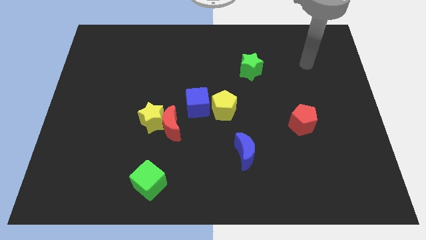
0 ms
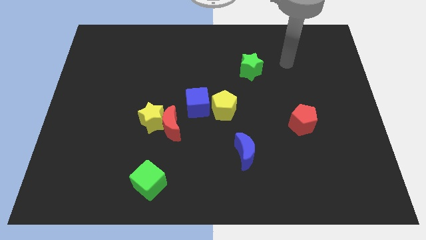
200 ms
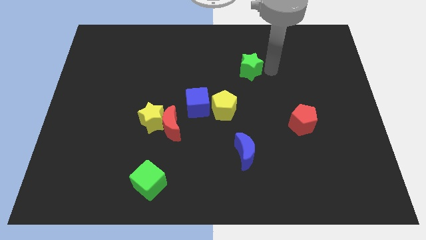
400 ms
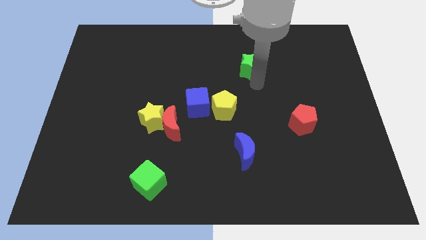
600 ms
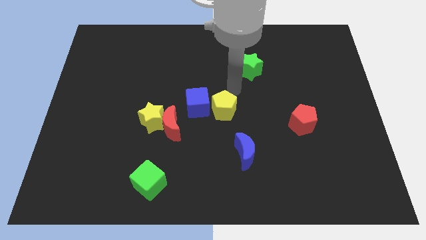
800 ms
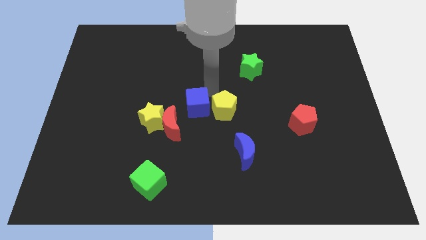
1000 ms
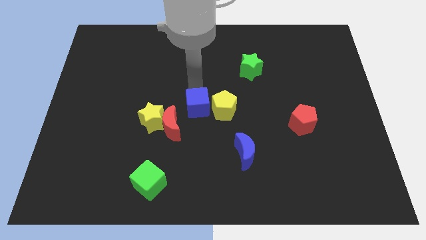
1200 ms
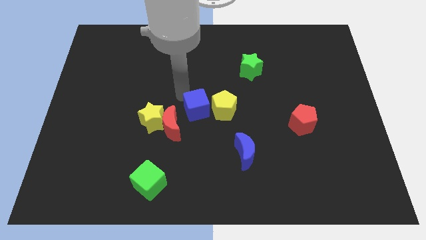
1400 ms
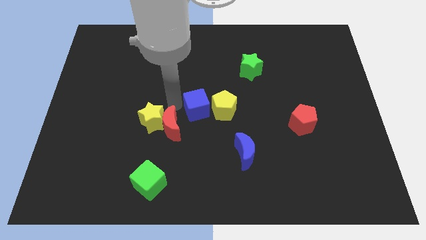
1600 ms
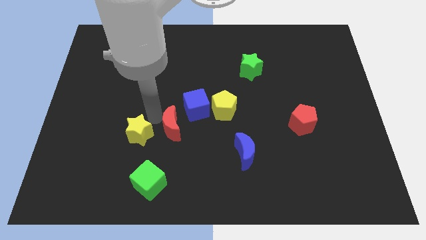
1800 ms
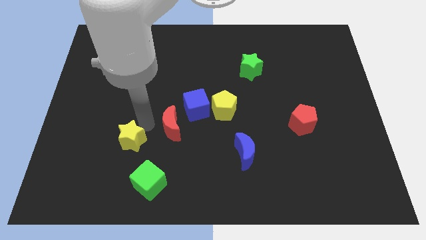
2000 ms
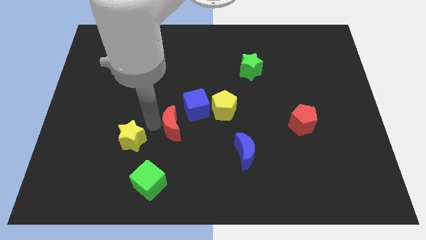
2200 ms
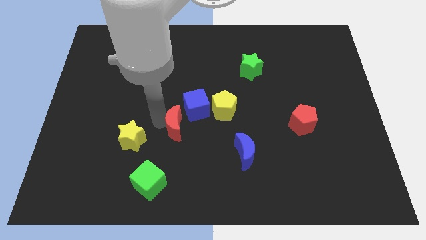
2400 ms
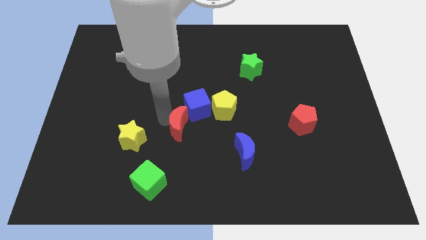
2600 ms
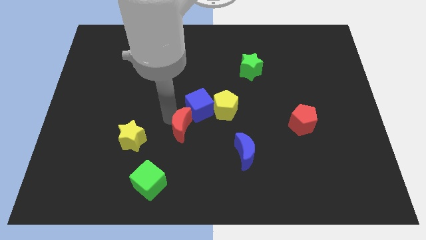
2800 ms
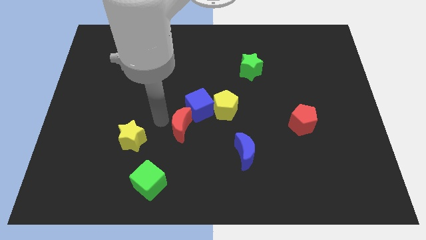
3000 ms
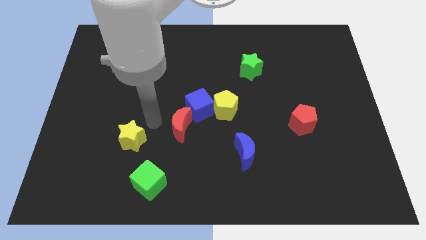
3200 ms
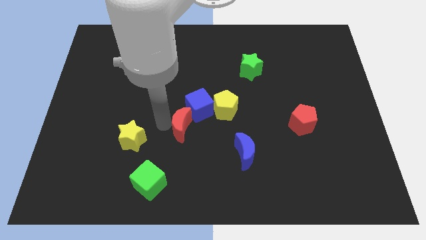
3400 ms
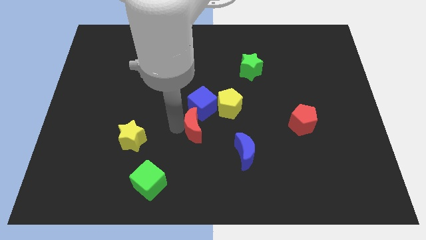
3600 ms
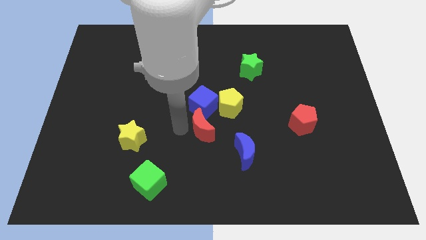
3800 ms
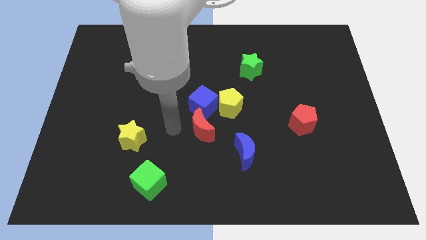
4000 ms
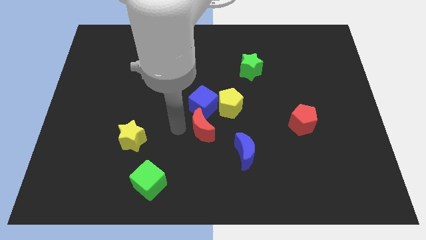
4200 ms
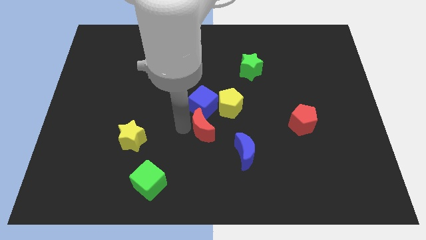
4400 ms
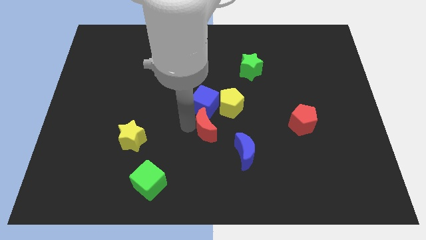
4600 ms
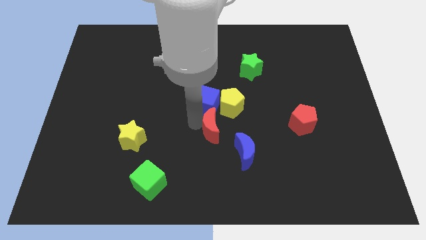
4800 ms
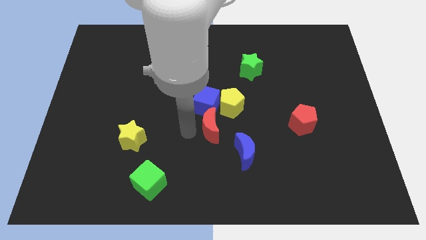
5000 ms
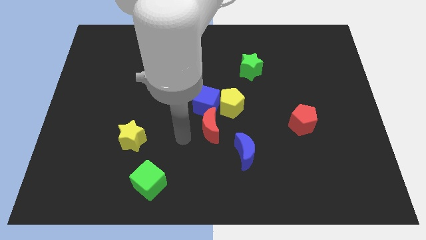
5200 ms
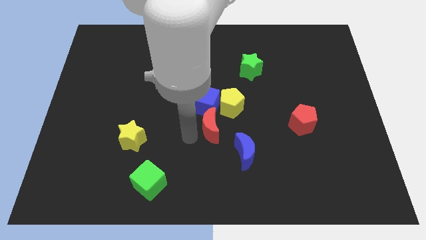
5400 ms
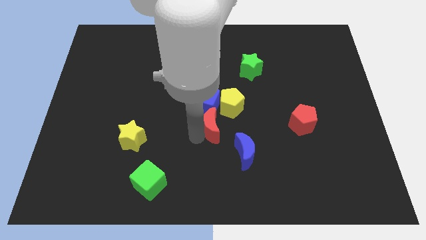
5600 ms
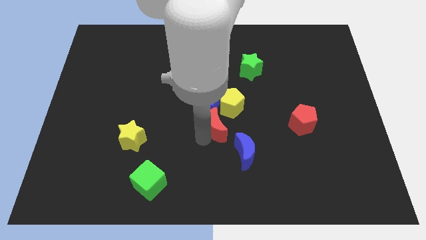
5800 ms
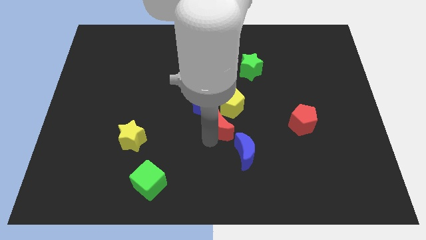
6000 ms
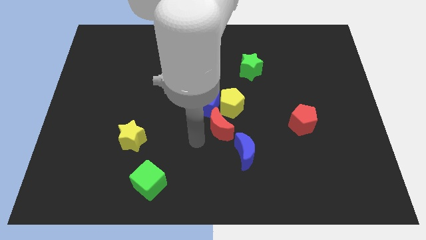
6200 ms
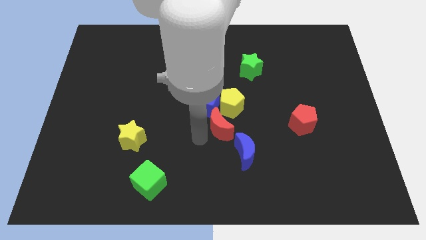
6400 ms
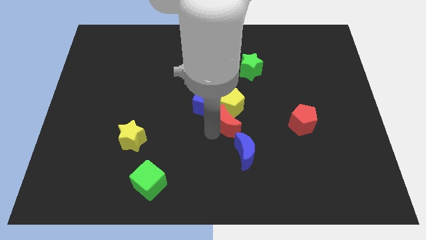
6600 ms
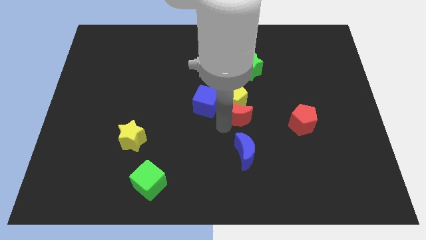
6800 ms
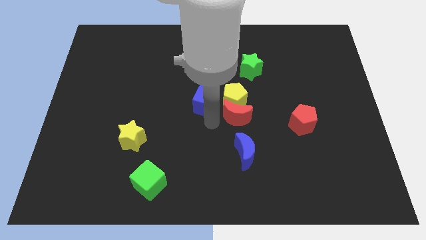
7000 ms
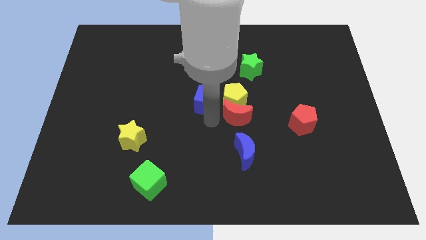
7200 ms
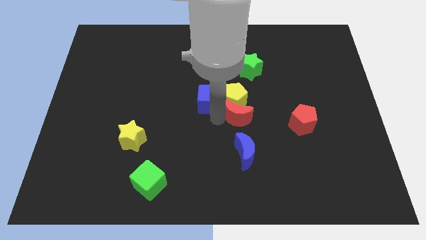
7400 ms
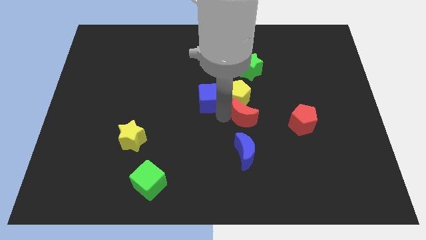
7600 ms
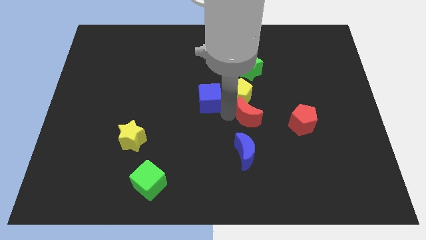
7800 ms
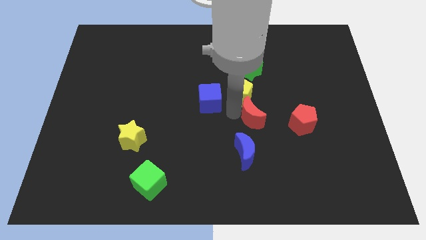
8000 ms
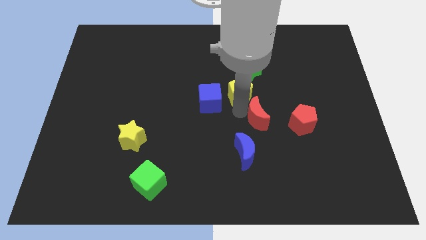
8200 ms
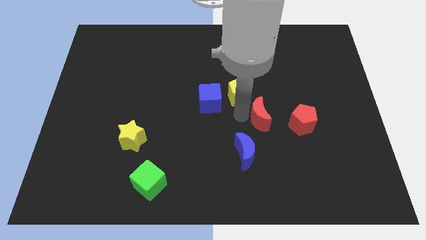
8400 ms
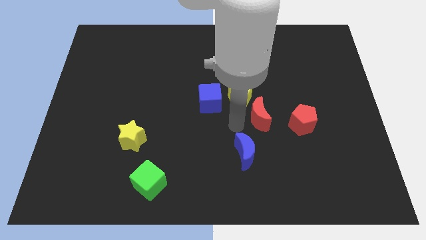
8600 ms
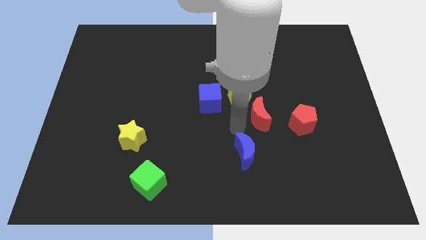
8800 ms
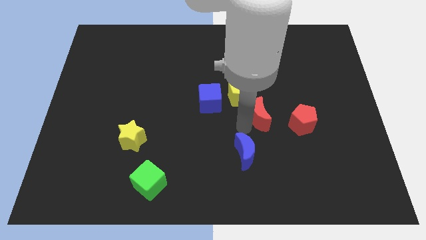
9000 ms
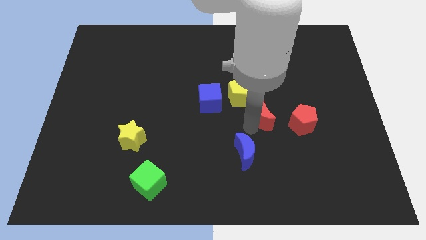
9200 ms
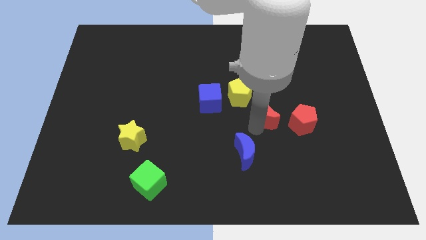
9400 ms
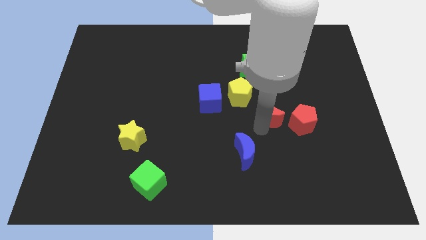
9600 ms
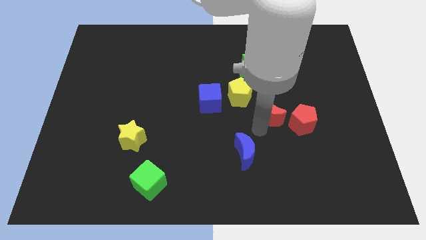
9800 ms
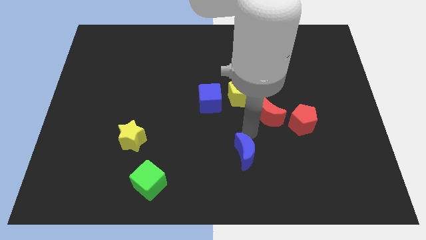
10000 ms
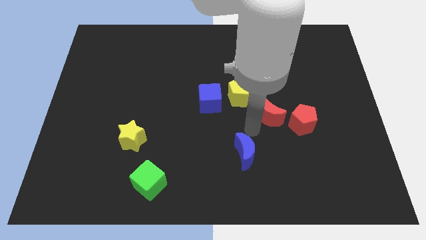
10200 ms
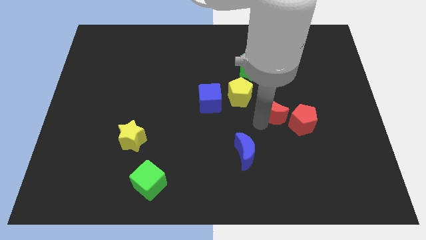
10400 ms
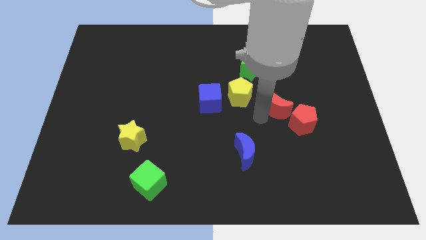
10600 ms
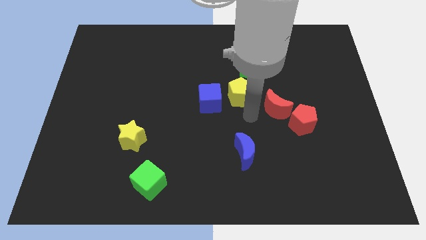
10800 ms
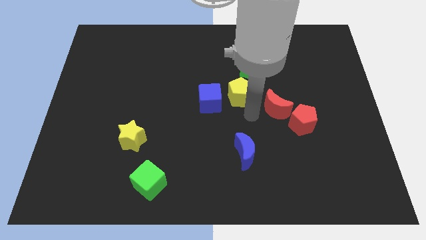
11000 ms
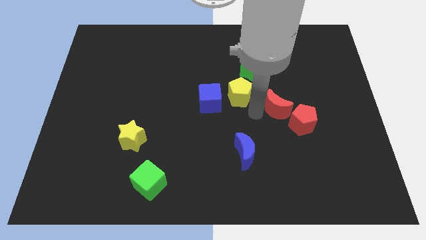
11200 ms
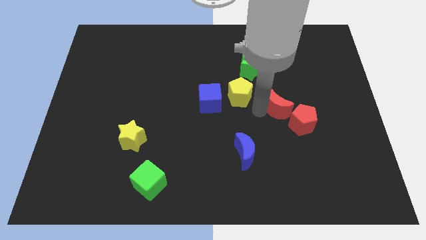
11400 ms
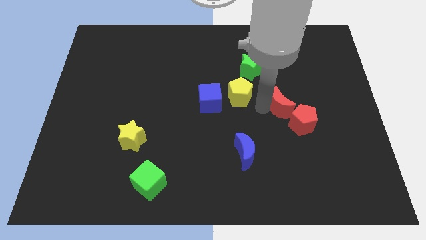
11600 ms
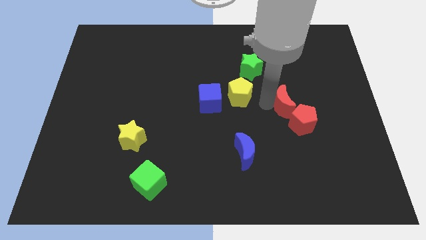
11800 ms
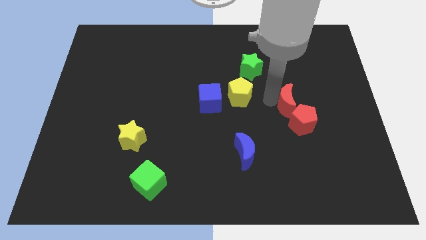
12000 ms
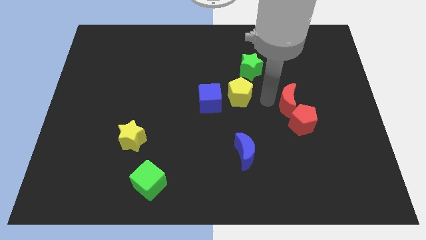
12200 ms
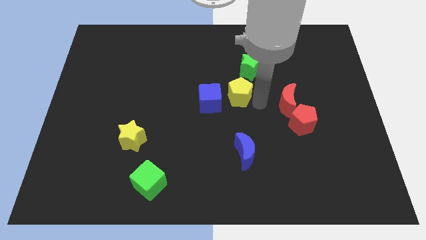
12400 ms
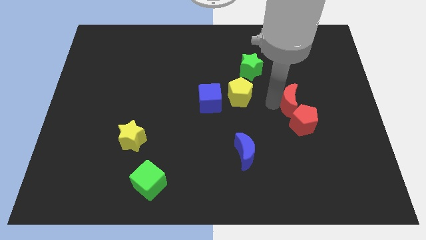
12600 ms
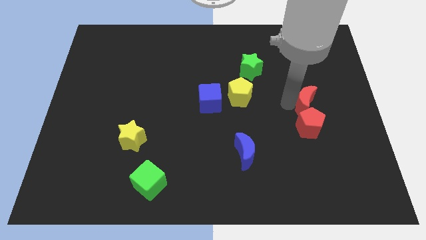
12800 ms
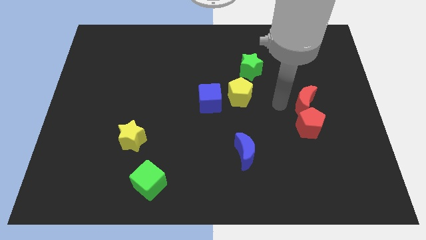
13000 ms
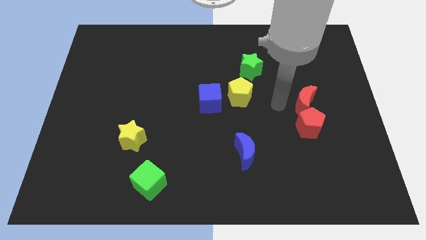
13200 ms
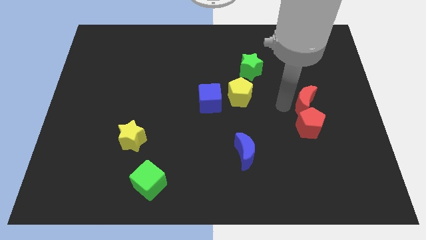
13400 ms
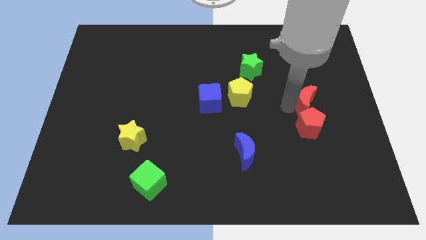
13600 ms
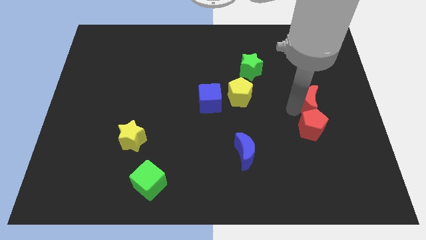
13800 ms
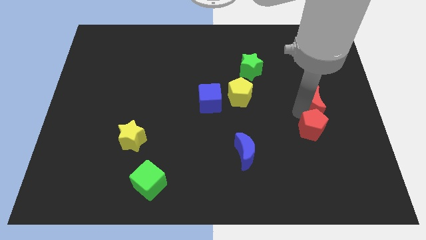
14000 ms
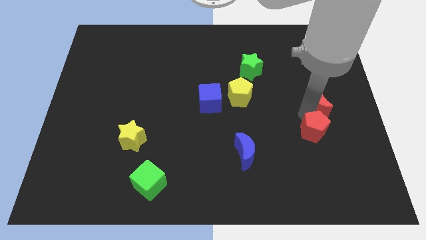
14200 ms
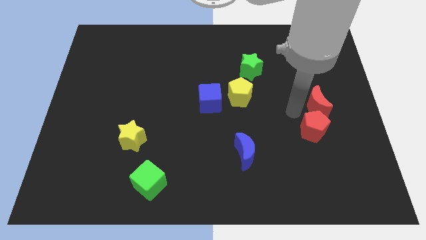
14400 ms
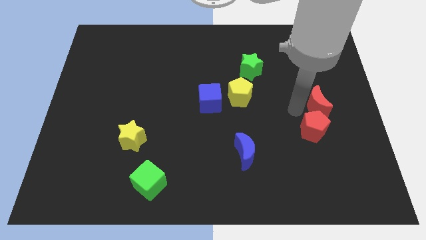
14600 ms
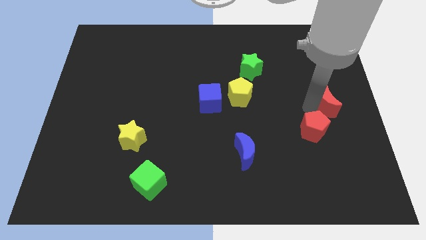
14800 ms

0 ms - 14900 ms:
move the red moon to the right side of the board
